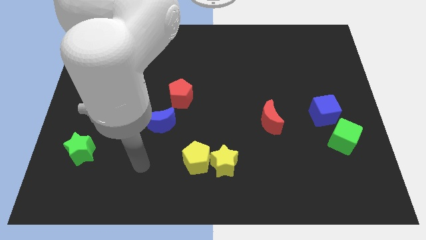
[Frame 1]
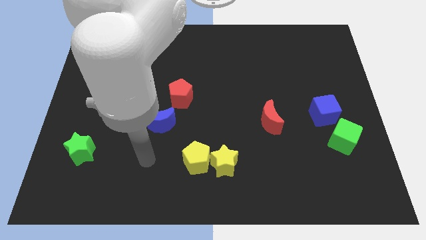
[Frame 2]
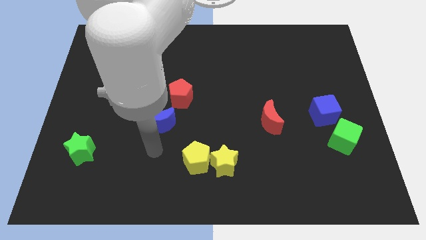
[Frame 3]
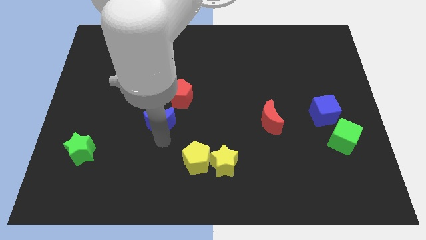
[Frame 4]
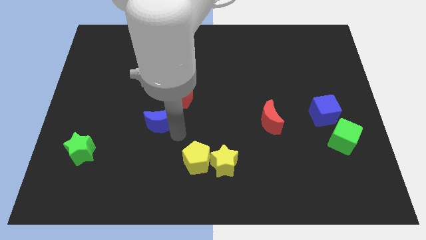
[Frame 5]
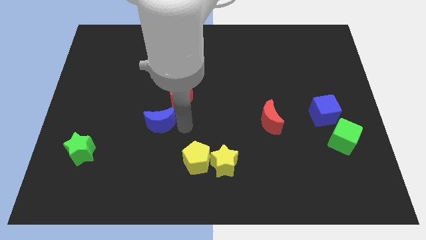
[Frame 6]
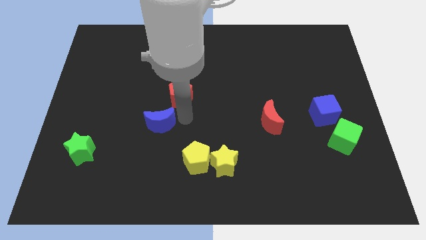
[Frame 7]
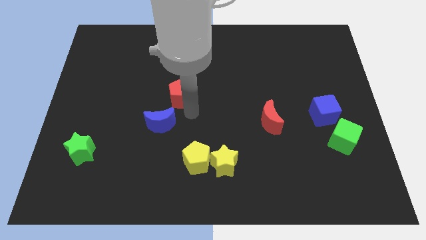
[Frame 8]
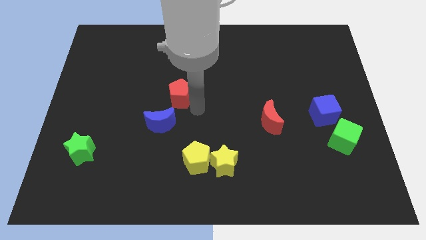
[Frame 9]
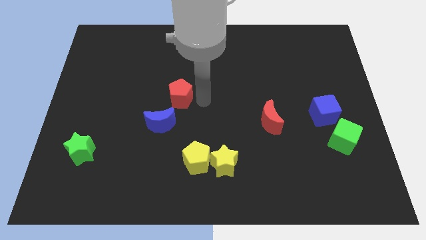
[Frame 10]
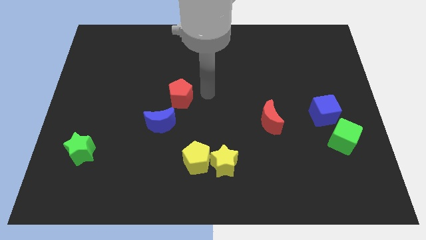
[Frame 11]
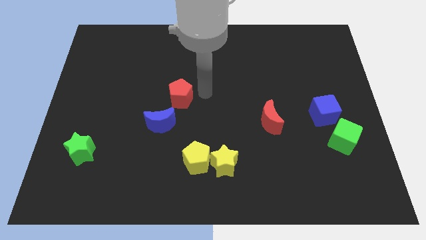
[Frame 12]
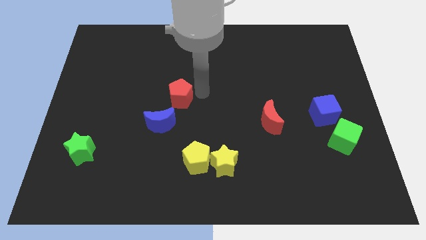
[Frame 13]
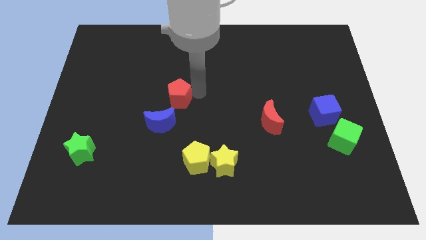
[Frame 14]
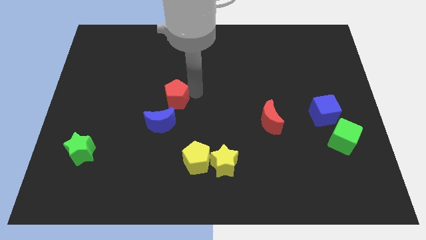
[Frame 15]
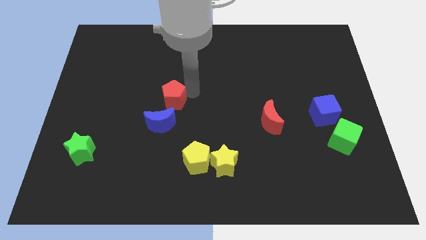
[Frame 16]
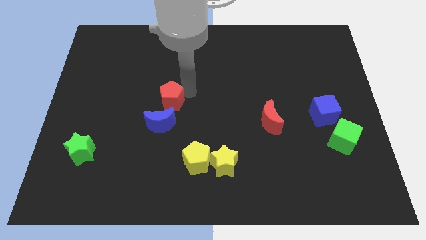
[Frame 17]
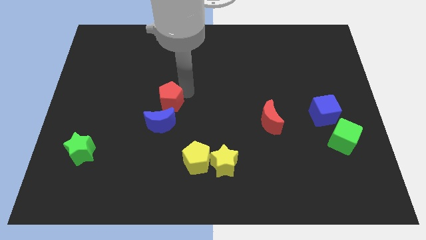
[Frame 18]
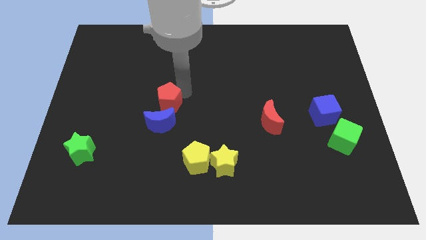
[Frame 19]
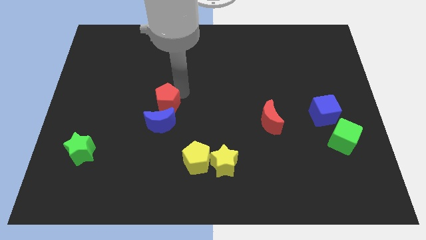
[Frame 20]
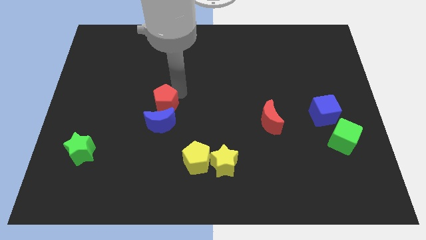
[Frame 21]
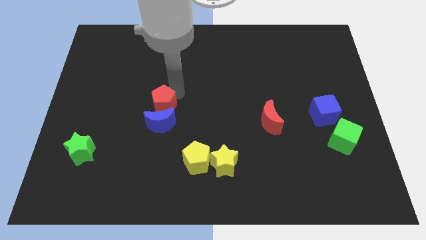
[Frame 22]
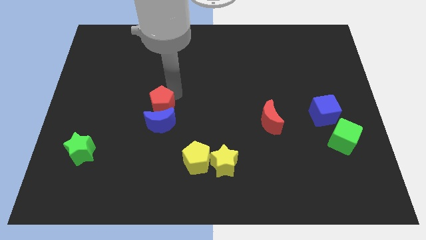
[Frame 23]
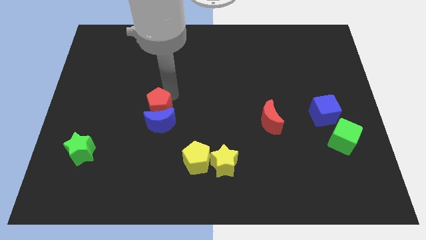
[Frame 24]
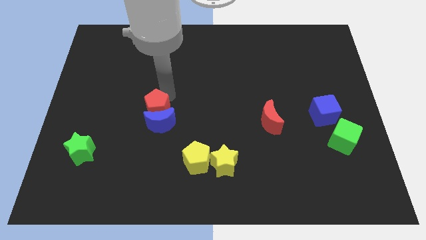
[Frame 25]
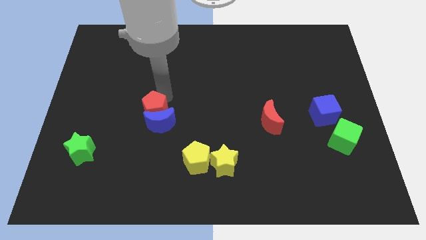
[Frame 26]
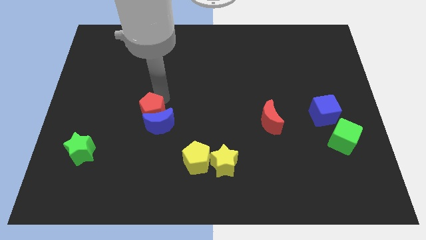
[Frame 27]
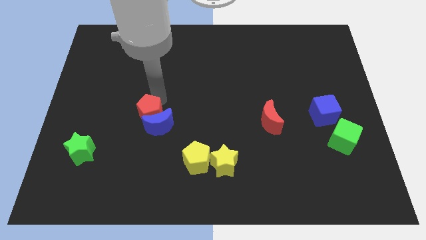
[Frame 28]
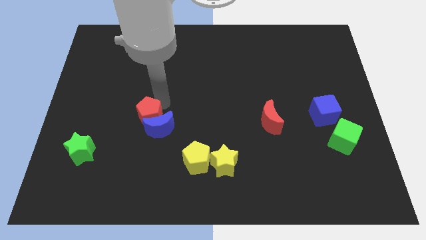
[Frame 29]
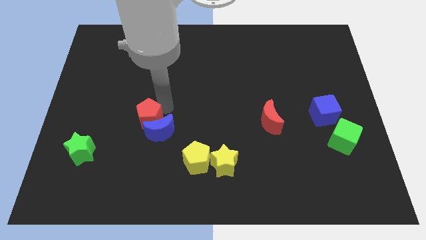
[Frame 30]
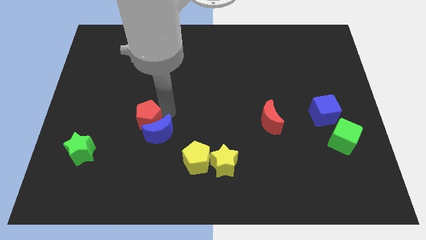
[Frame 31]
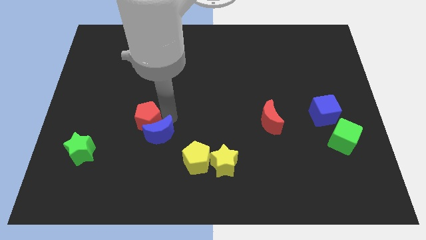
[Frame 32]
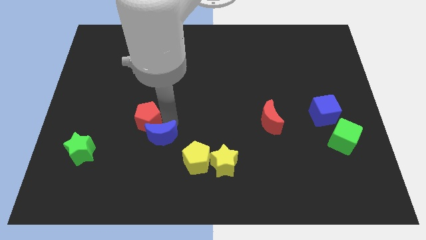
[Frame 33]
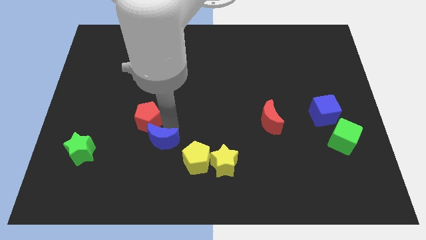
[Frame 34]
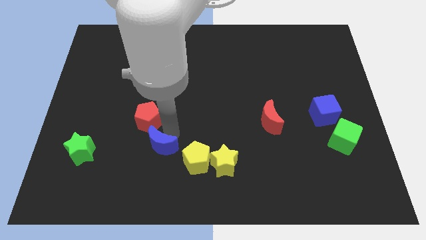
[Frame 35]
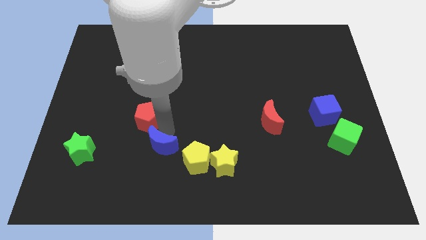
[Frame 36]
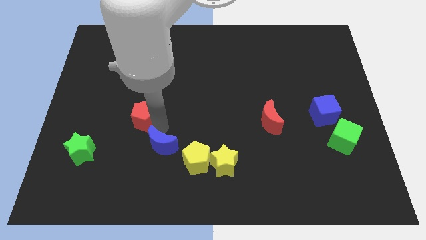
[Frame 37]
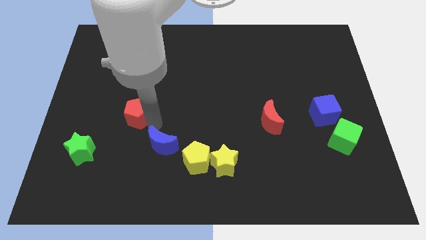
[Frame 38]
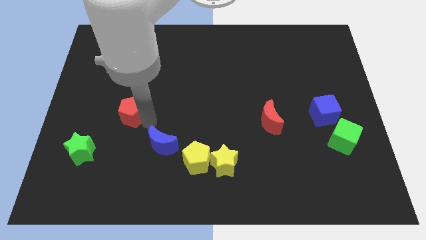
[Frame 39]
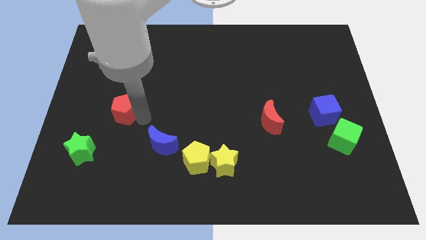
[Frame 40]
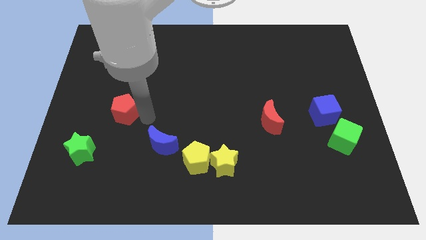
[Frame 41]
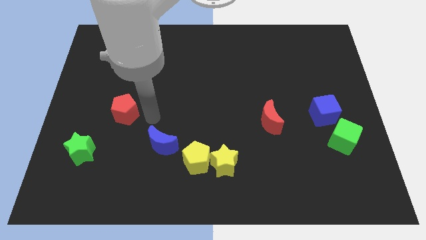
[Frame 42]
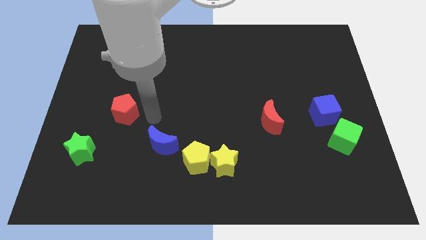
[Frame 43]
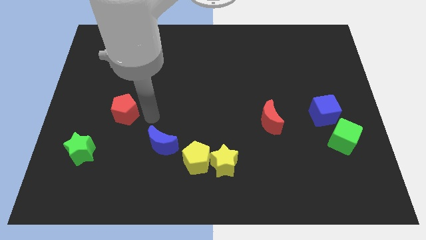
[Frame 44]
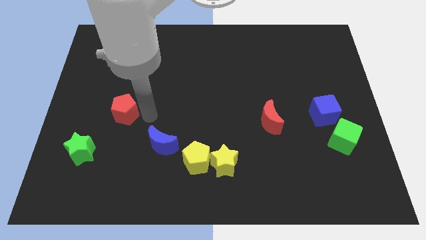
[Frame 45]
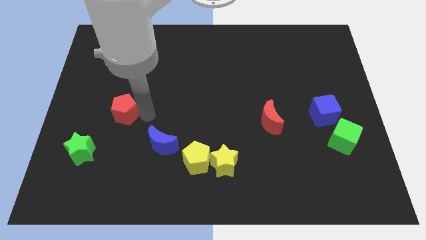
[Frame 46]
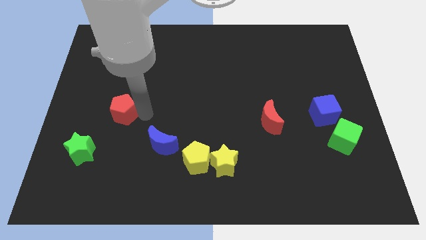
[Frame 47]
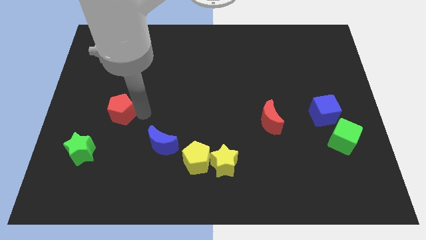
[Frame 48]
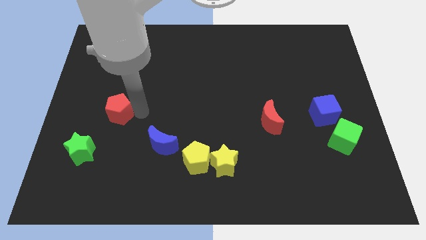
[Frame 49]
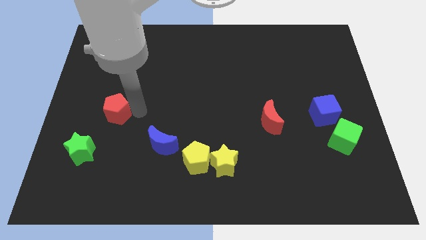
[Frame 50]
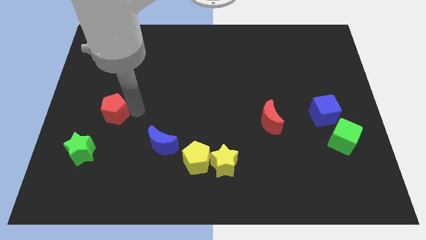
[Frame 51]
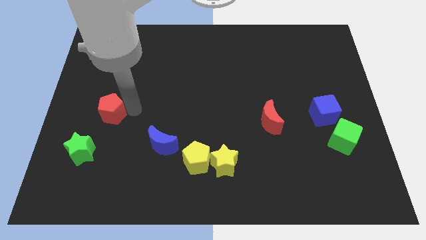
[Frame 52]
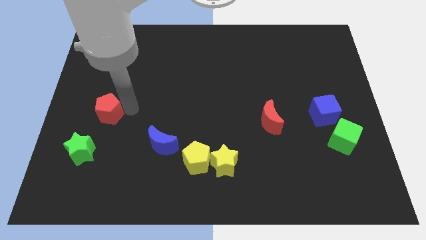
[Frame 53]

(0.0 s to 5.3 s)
slide the red pentagon to the top of the green star

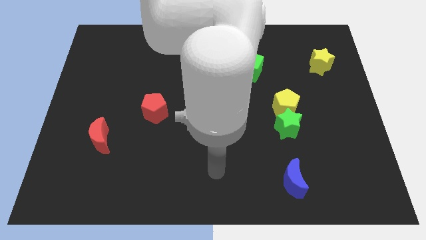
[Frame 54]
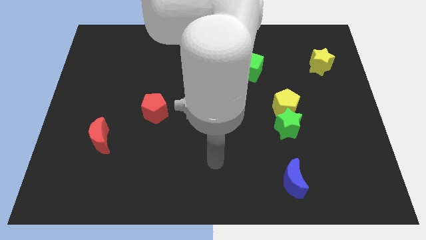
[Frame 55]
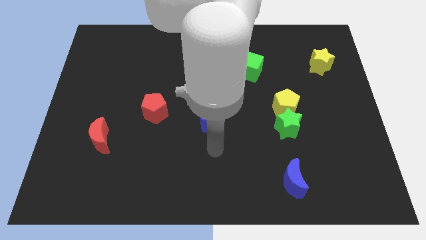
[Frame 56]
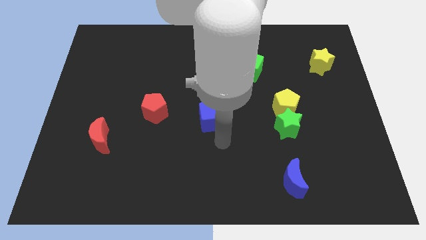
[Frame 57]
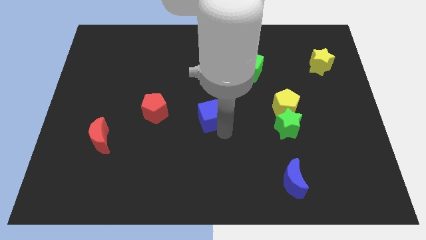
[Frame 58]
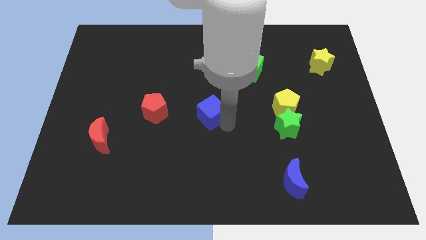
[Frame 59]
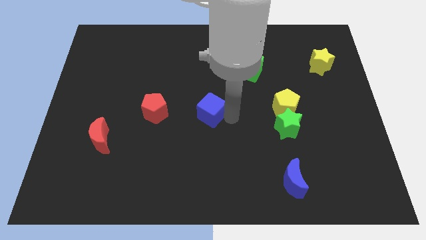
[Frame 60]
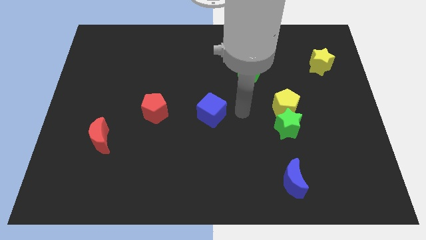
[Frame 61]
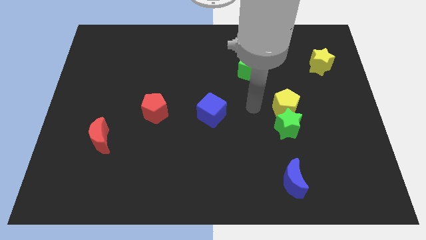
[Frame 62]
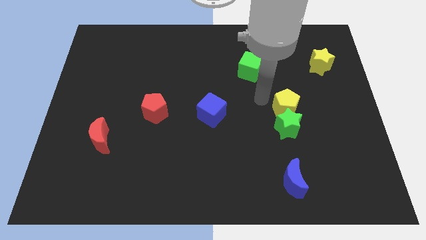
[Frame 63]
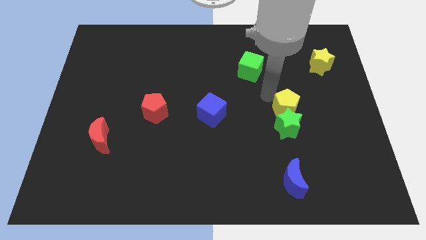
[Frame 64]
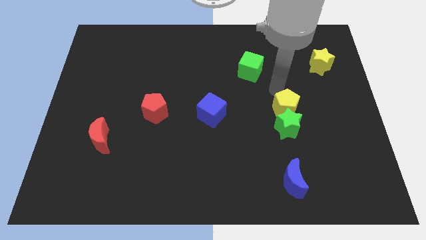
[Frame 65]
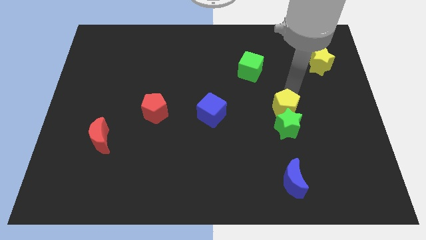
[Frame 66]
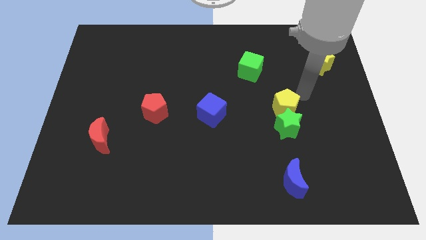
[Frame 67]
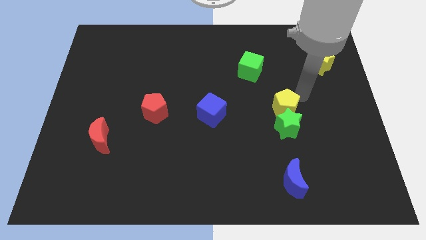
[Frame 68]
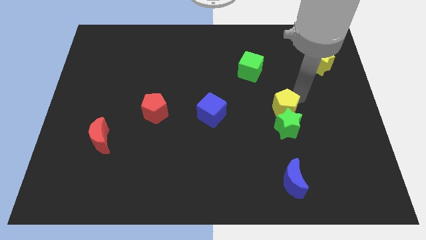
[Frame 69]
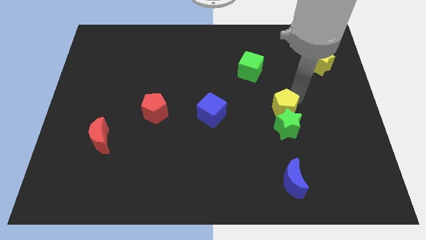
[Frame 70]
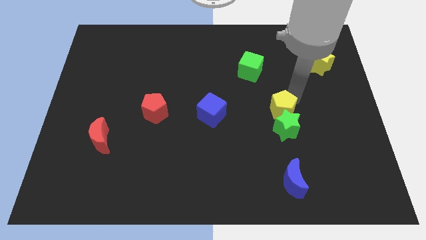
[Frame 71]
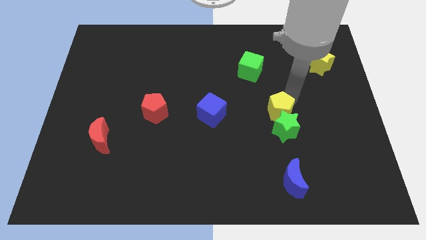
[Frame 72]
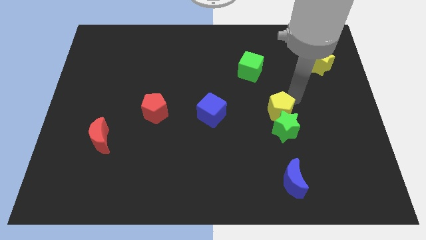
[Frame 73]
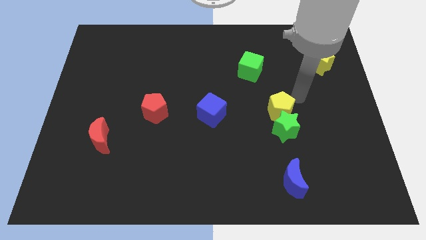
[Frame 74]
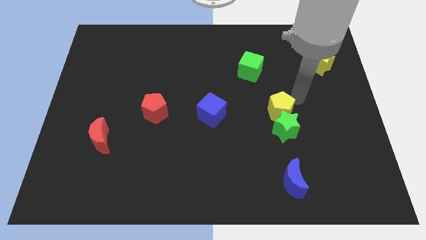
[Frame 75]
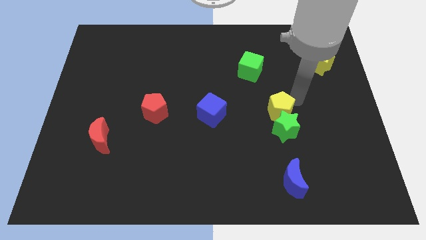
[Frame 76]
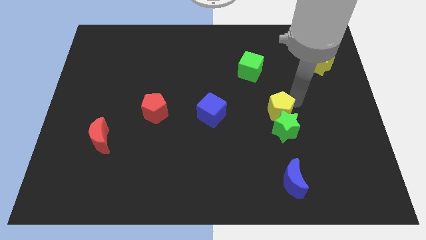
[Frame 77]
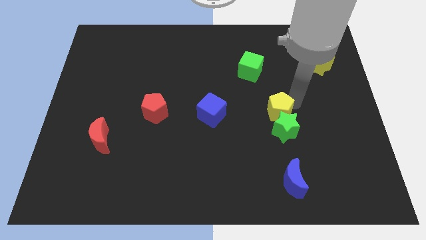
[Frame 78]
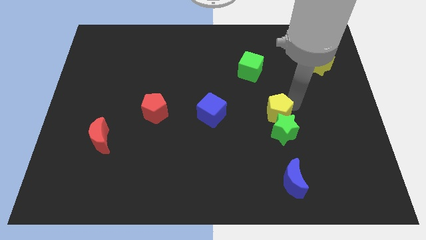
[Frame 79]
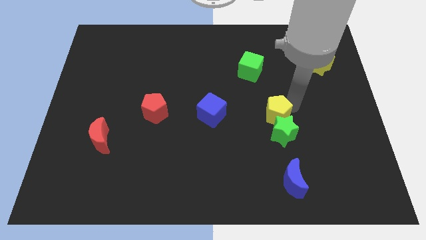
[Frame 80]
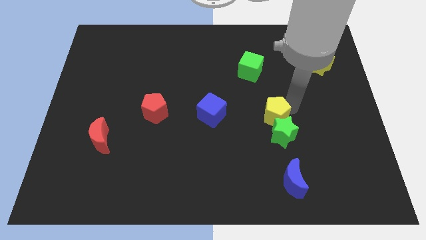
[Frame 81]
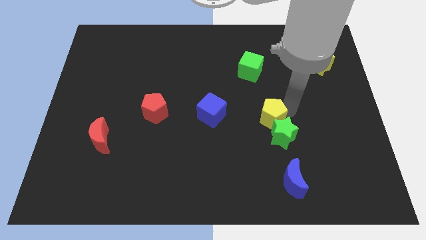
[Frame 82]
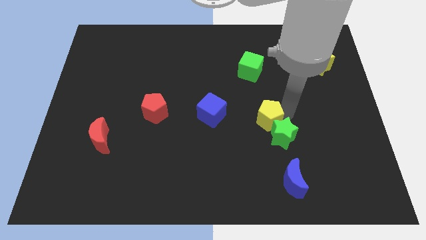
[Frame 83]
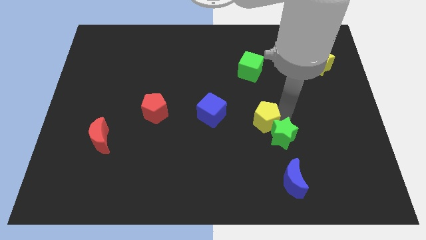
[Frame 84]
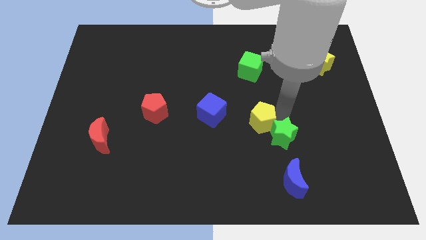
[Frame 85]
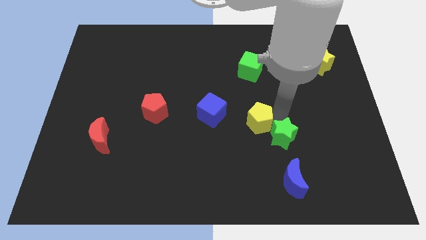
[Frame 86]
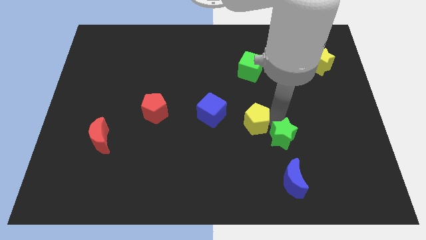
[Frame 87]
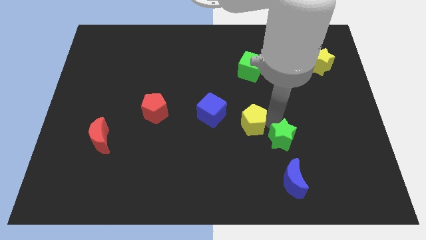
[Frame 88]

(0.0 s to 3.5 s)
slide the yellow pentagon diagonally down and to the right of the blue cube
